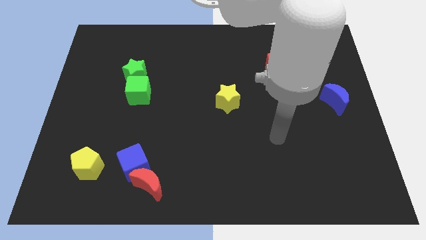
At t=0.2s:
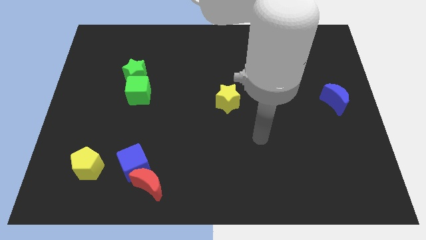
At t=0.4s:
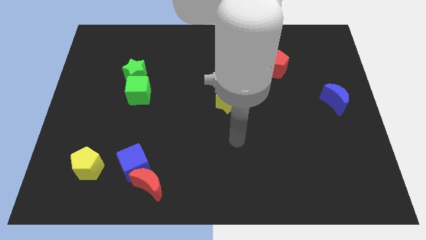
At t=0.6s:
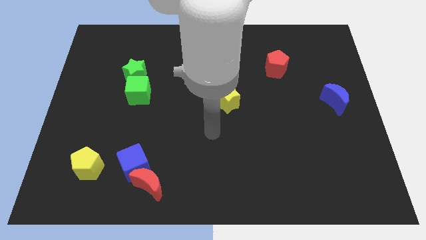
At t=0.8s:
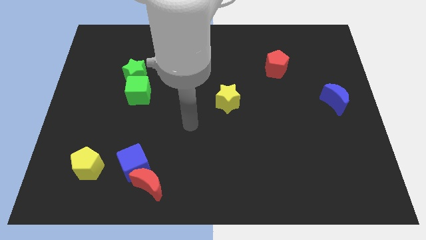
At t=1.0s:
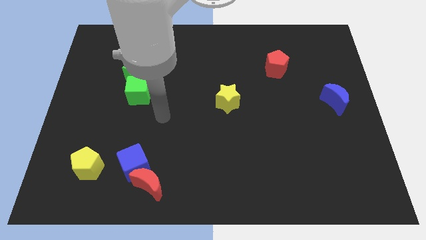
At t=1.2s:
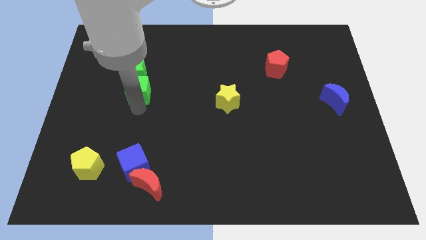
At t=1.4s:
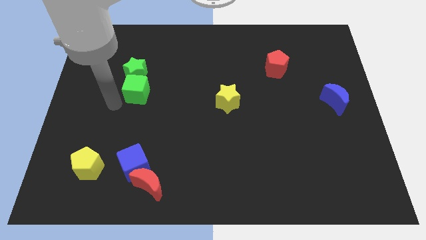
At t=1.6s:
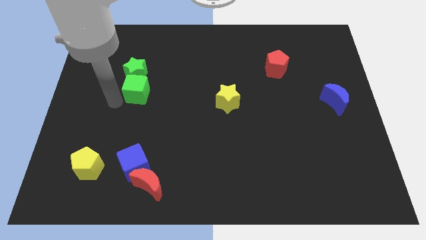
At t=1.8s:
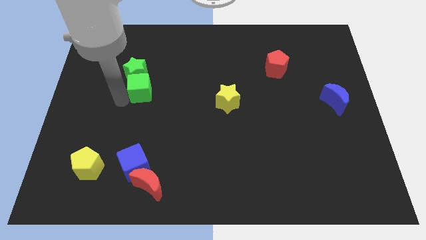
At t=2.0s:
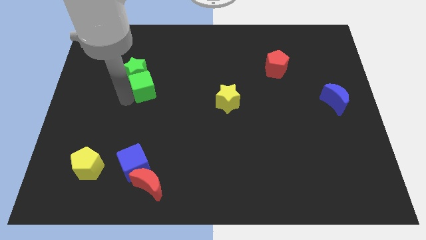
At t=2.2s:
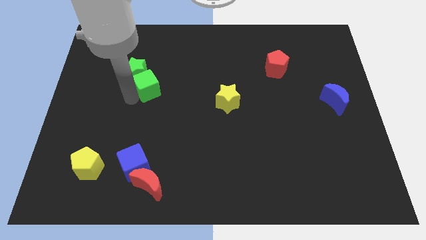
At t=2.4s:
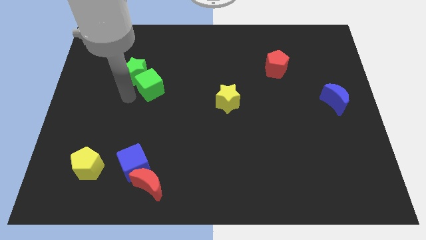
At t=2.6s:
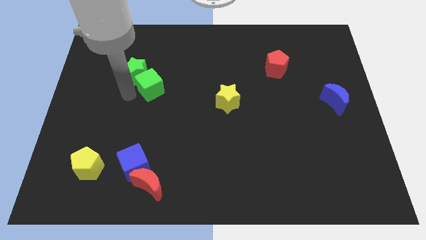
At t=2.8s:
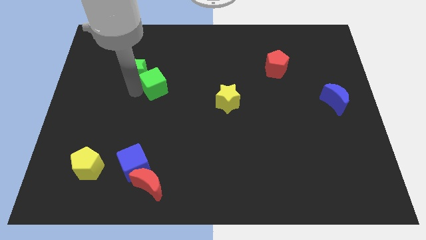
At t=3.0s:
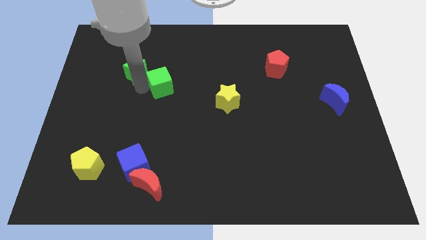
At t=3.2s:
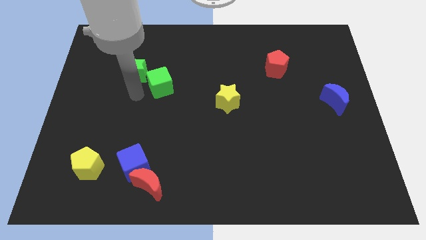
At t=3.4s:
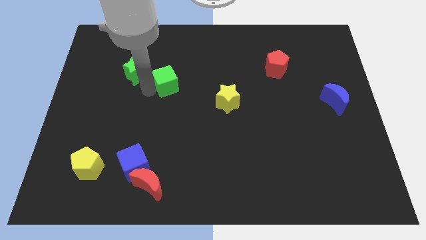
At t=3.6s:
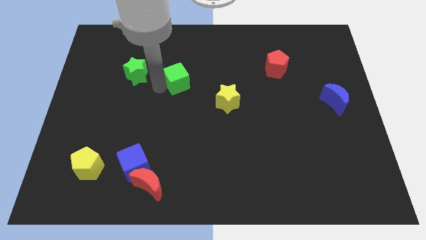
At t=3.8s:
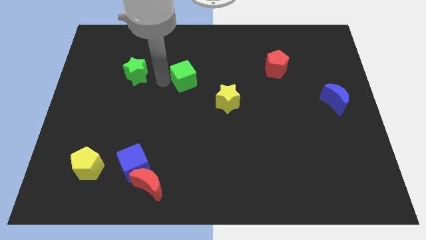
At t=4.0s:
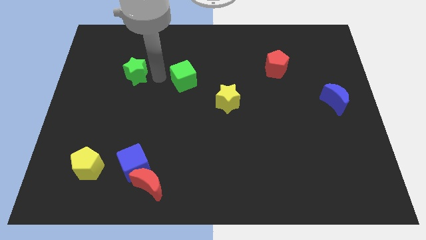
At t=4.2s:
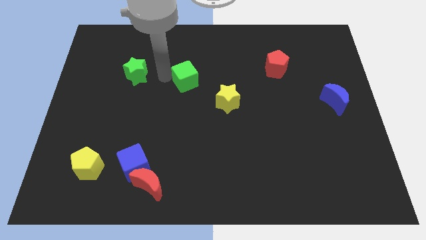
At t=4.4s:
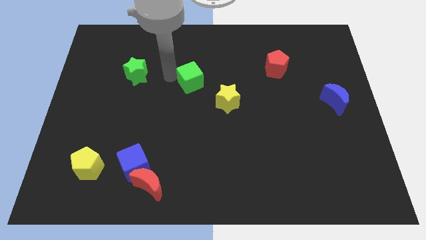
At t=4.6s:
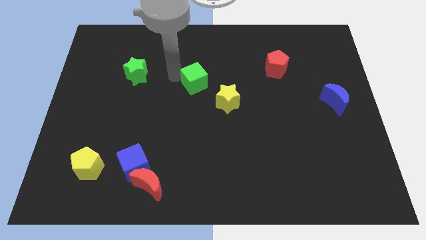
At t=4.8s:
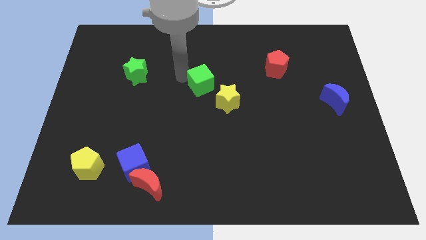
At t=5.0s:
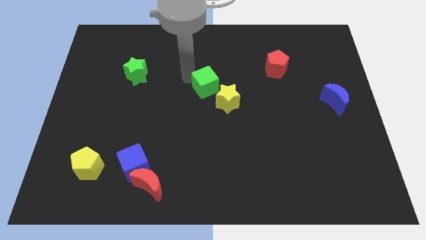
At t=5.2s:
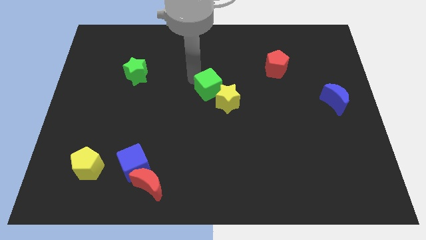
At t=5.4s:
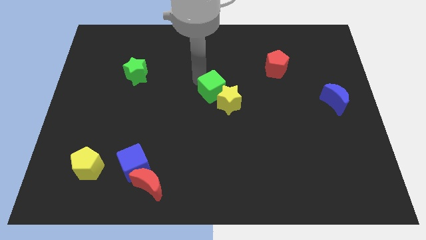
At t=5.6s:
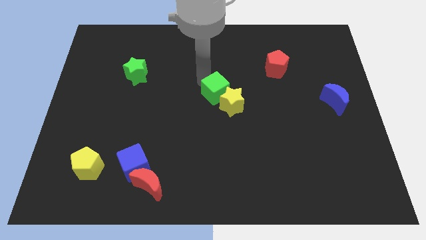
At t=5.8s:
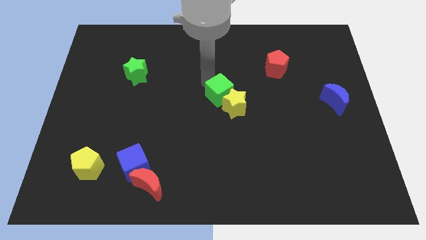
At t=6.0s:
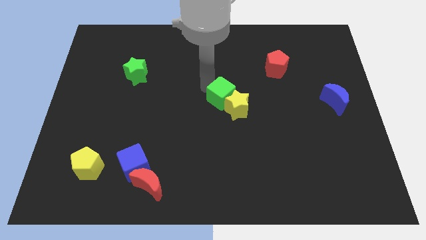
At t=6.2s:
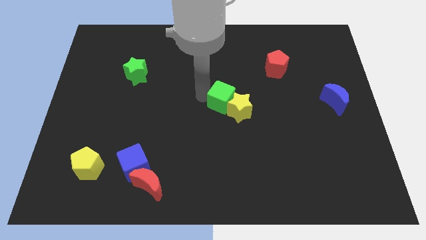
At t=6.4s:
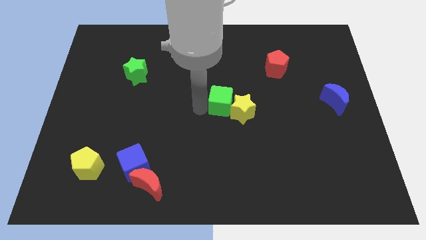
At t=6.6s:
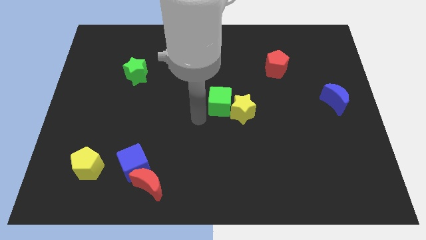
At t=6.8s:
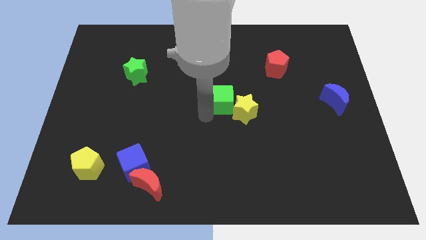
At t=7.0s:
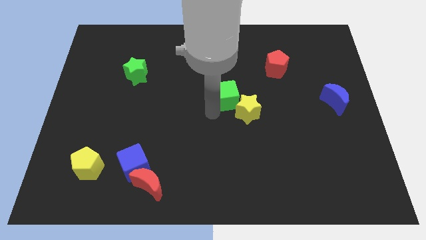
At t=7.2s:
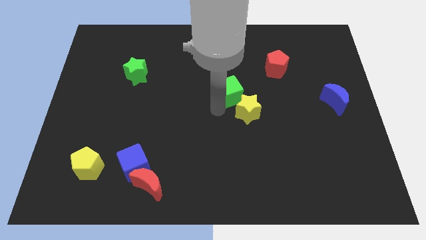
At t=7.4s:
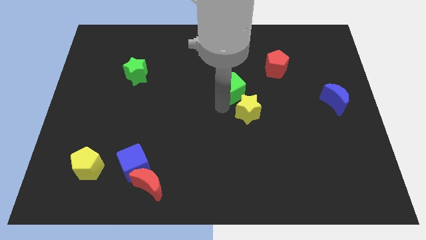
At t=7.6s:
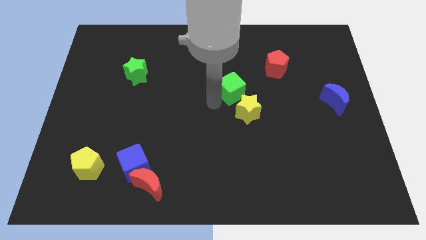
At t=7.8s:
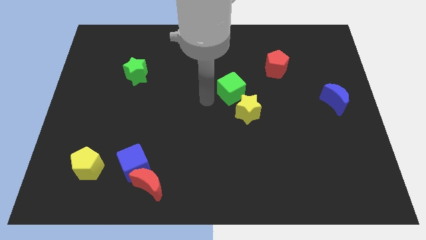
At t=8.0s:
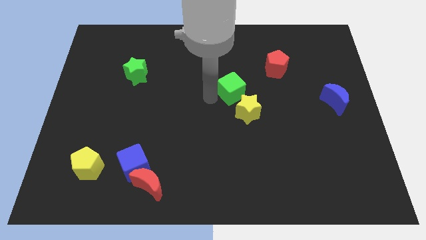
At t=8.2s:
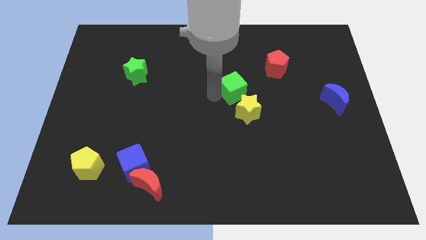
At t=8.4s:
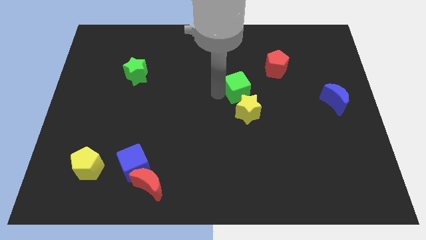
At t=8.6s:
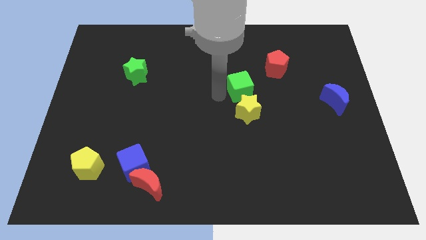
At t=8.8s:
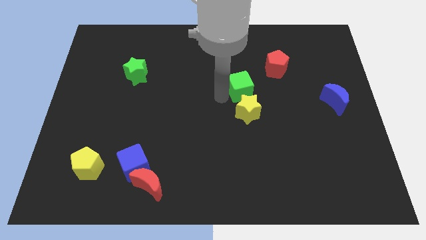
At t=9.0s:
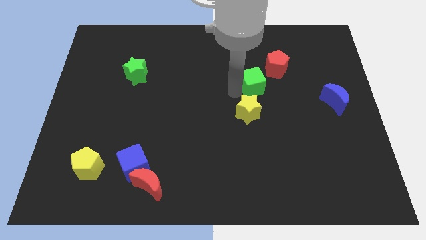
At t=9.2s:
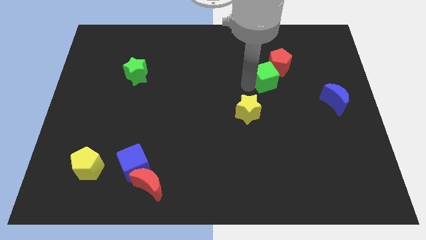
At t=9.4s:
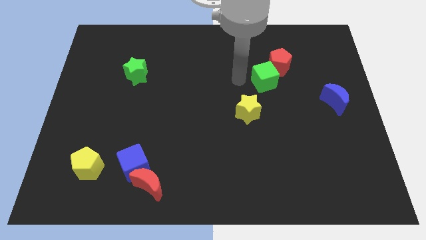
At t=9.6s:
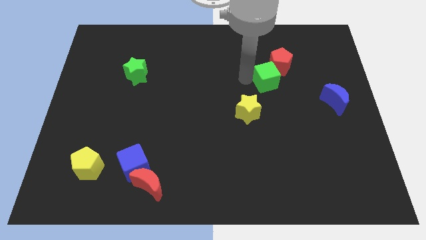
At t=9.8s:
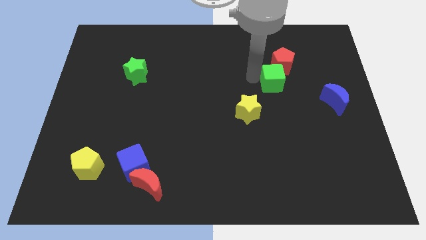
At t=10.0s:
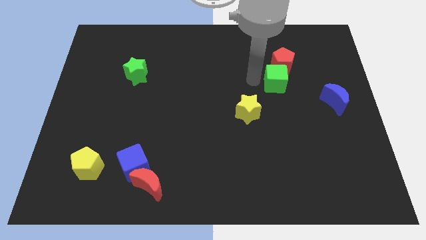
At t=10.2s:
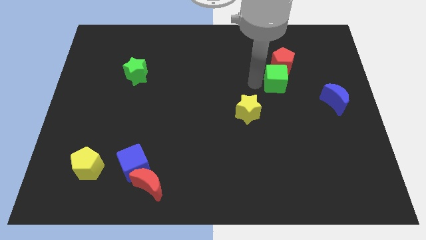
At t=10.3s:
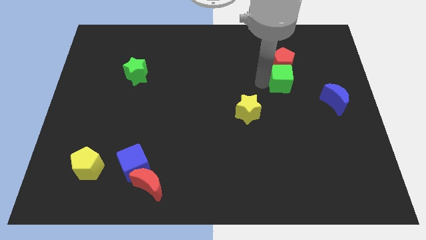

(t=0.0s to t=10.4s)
slide the green cube to the bottom right of the red pentagon
